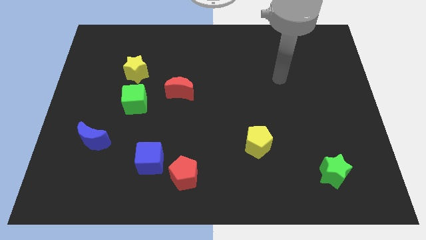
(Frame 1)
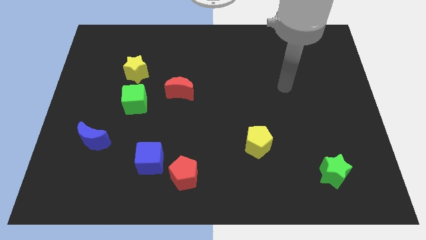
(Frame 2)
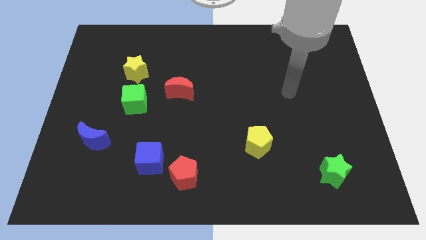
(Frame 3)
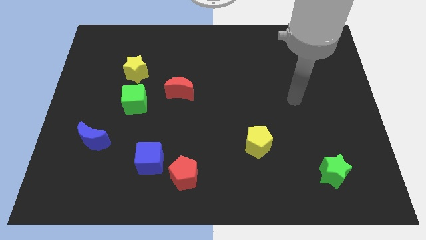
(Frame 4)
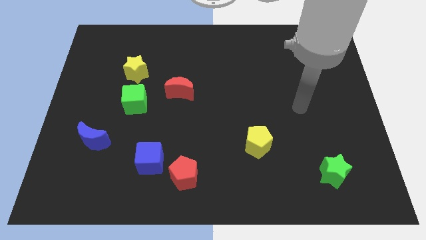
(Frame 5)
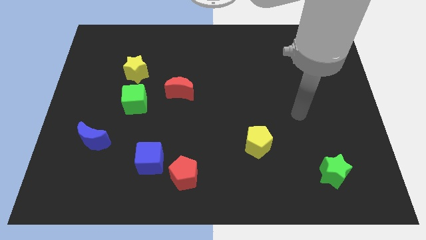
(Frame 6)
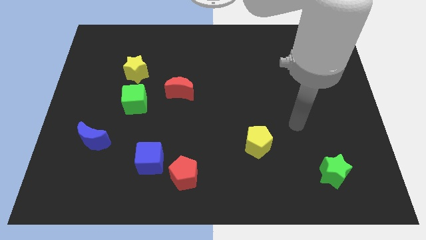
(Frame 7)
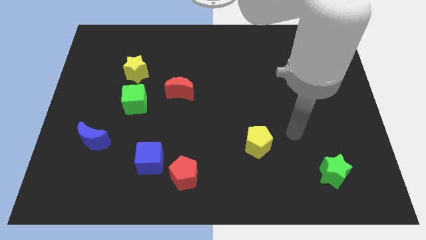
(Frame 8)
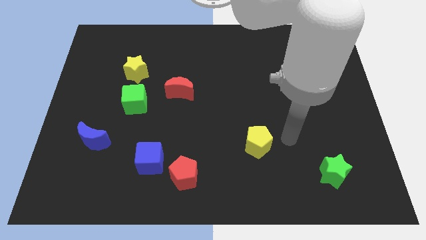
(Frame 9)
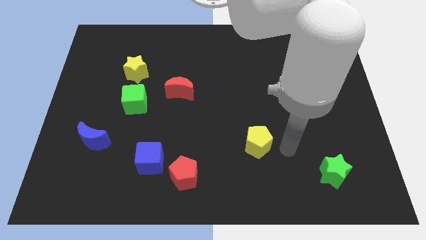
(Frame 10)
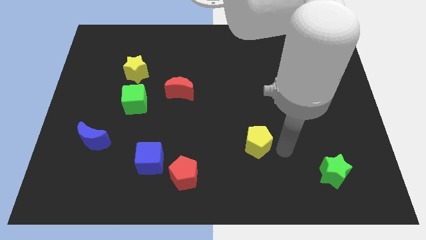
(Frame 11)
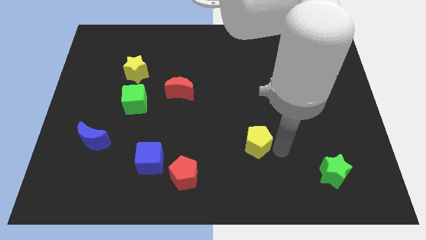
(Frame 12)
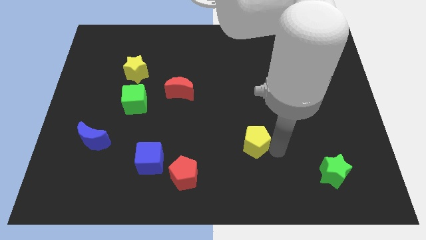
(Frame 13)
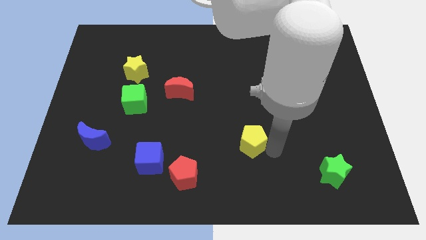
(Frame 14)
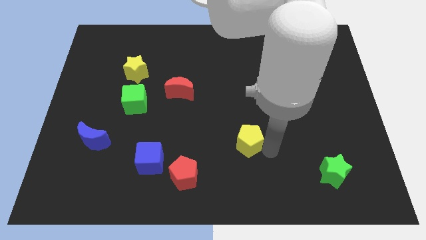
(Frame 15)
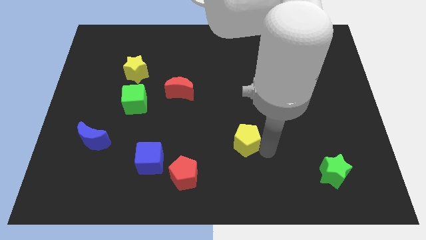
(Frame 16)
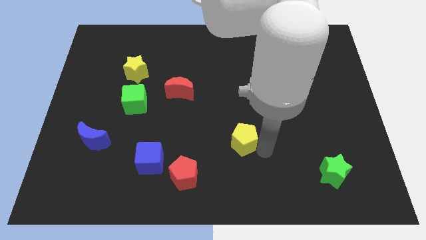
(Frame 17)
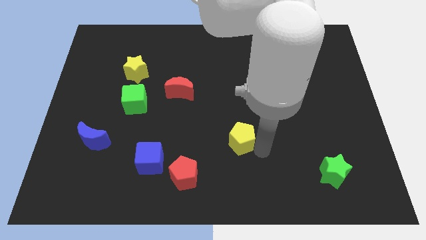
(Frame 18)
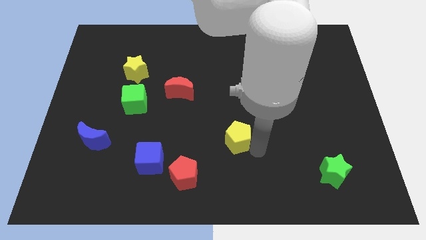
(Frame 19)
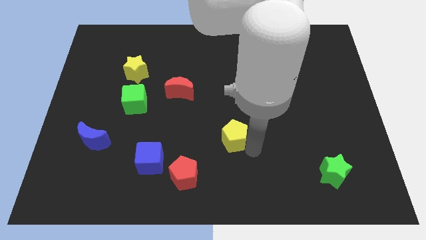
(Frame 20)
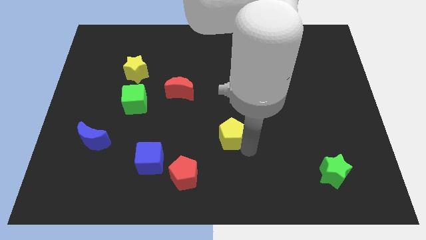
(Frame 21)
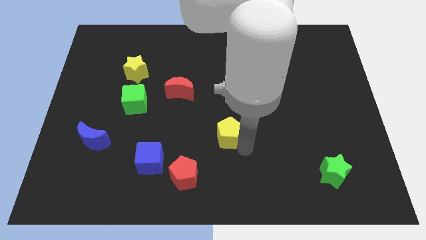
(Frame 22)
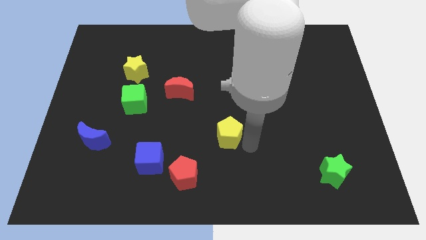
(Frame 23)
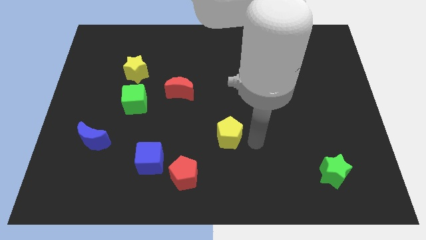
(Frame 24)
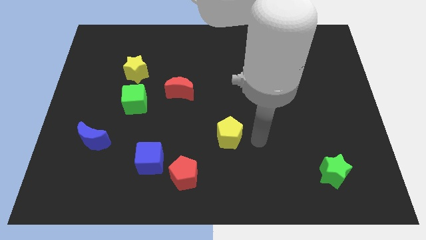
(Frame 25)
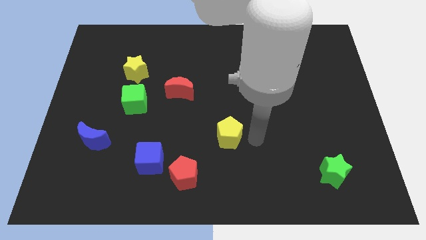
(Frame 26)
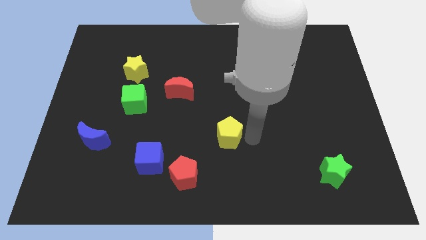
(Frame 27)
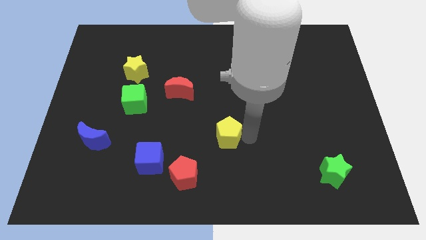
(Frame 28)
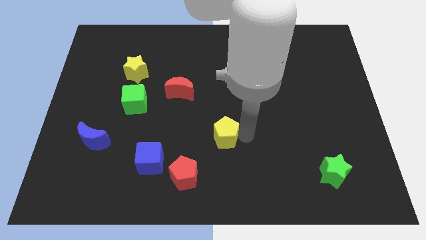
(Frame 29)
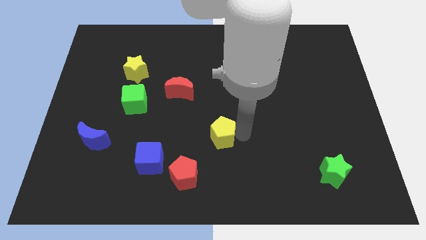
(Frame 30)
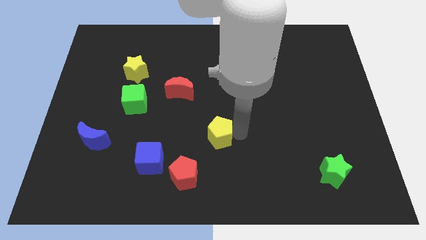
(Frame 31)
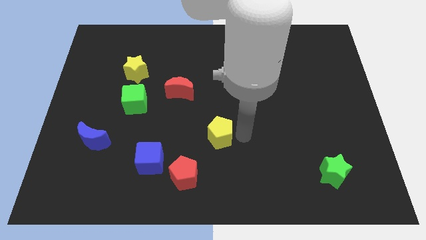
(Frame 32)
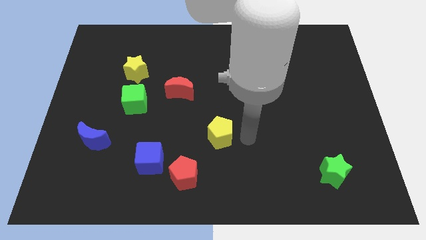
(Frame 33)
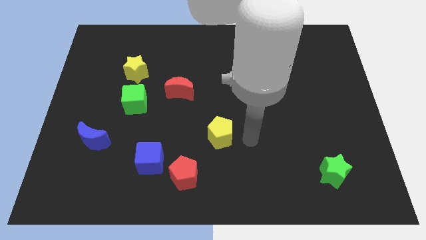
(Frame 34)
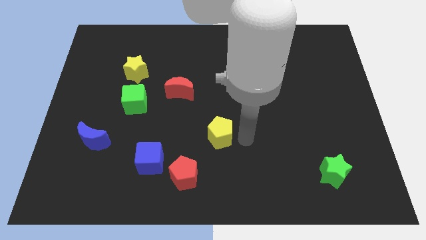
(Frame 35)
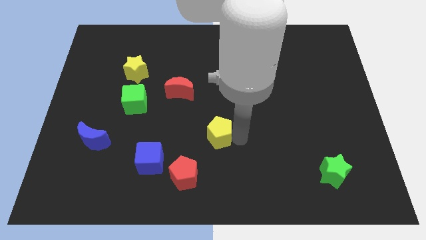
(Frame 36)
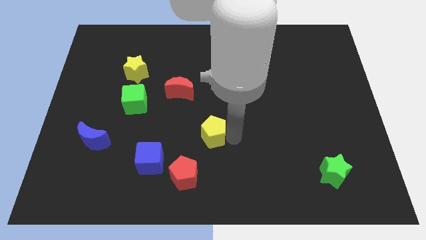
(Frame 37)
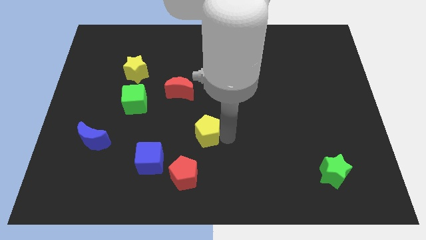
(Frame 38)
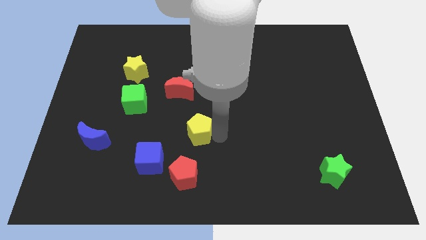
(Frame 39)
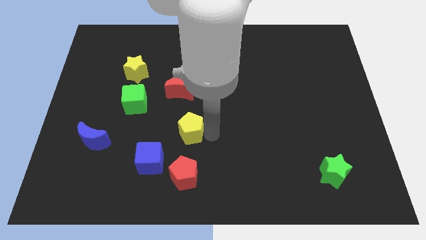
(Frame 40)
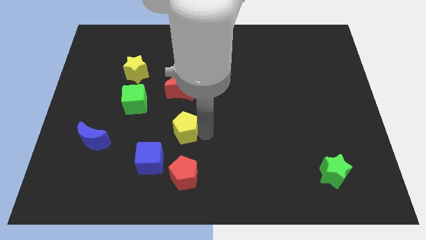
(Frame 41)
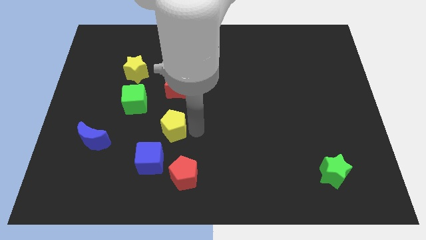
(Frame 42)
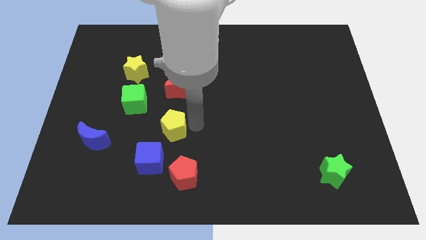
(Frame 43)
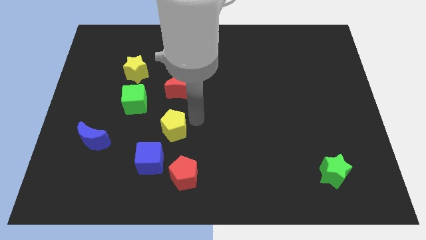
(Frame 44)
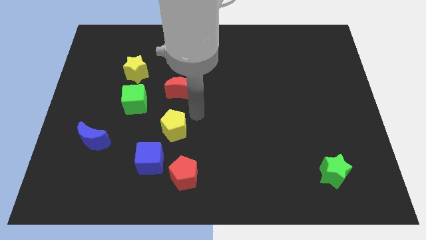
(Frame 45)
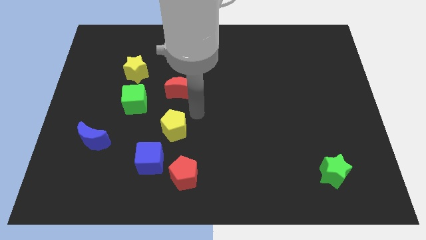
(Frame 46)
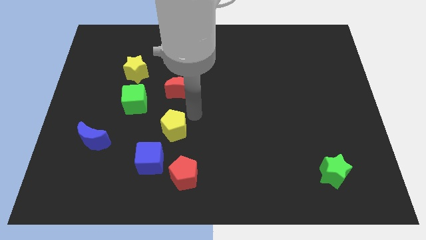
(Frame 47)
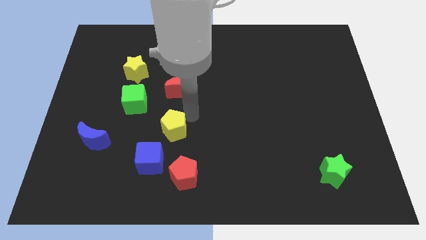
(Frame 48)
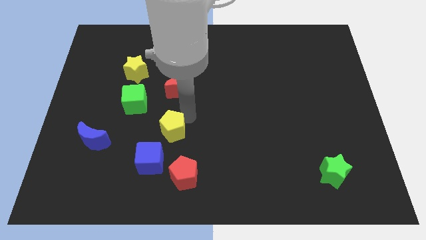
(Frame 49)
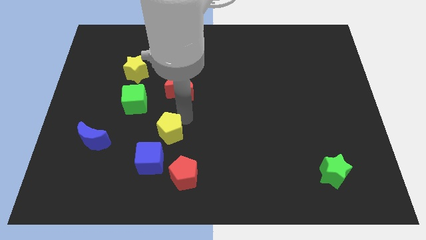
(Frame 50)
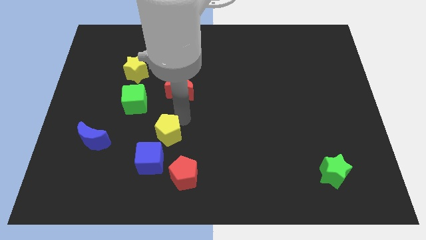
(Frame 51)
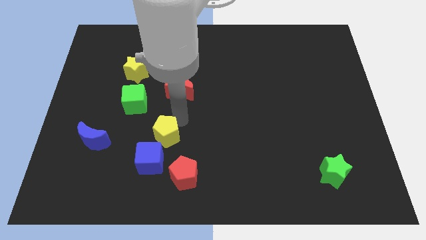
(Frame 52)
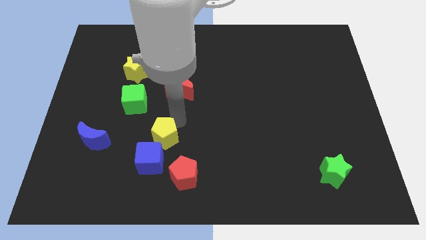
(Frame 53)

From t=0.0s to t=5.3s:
push the yellow pentagon right of the blue moon

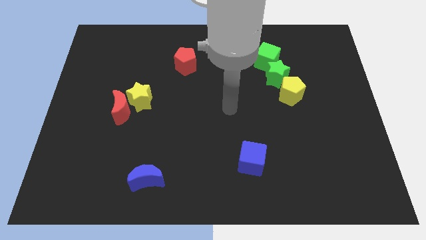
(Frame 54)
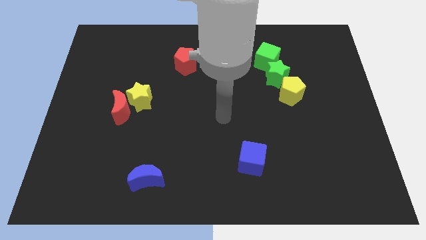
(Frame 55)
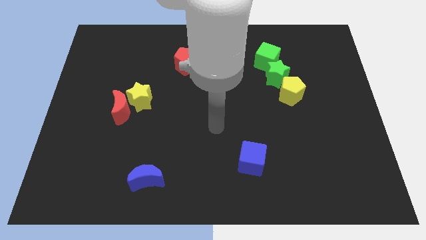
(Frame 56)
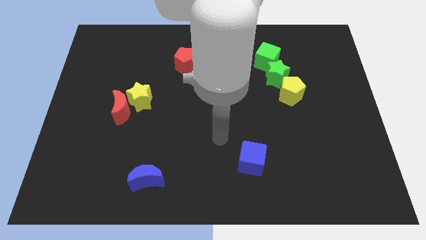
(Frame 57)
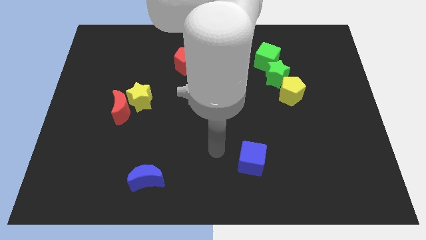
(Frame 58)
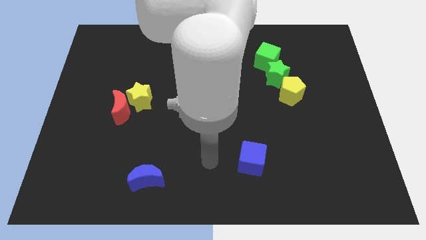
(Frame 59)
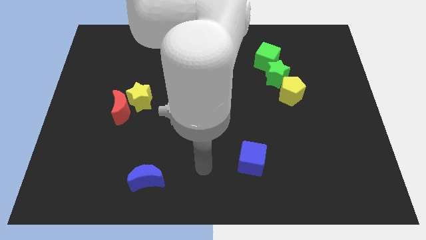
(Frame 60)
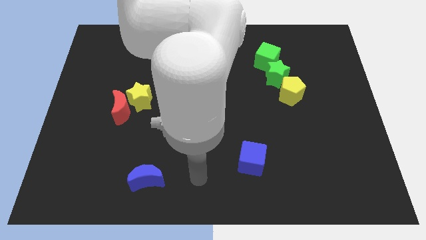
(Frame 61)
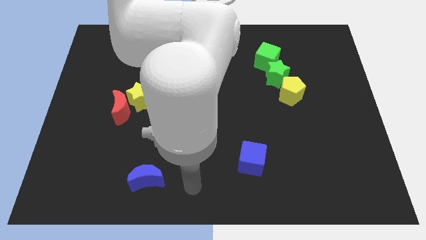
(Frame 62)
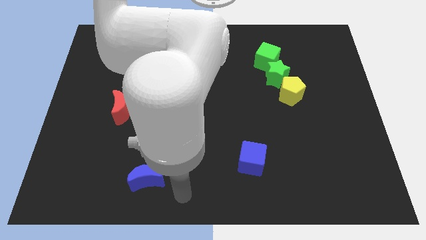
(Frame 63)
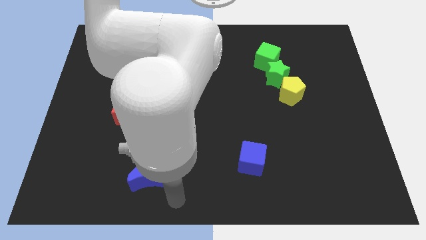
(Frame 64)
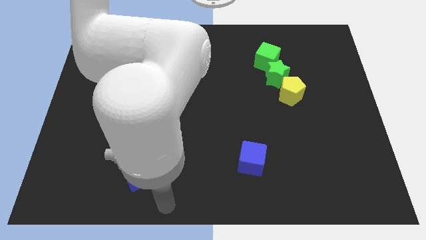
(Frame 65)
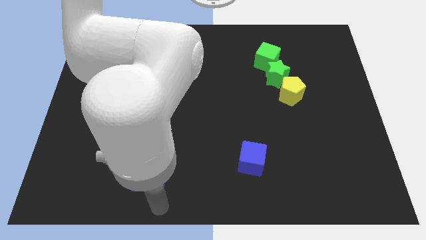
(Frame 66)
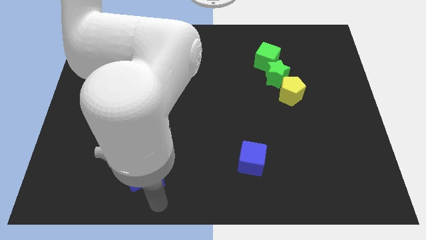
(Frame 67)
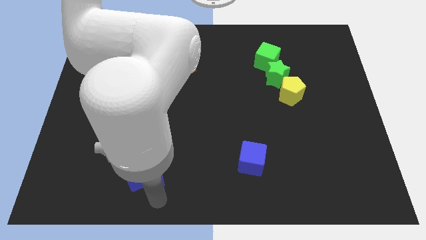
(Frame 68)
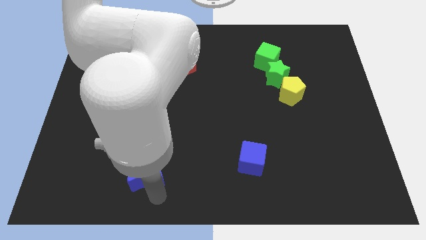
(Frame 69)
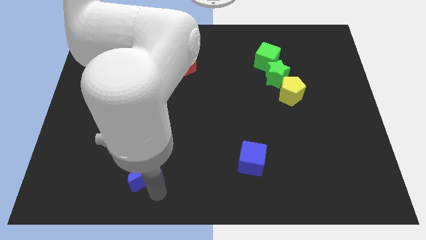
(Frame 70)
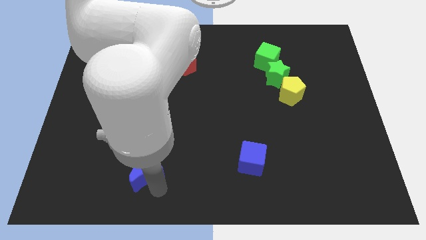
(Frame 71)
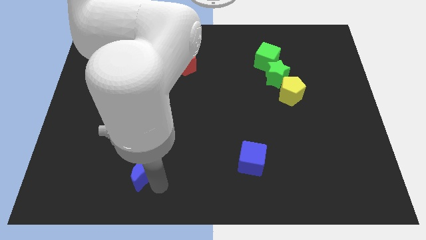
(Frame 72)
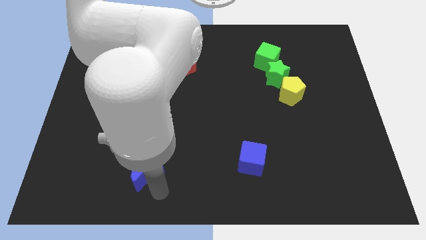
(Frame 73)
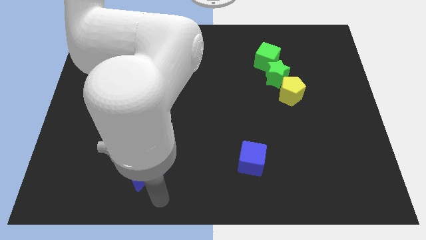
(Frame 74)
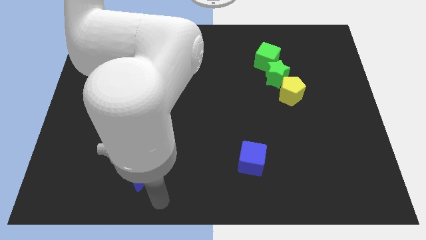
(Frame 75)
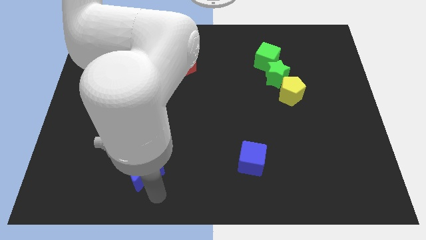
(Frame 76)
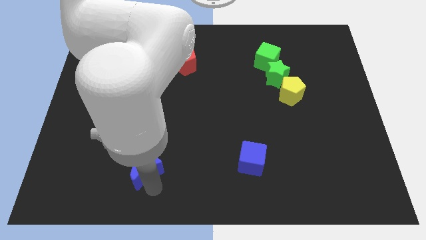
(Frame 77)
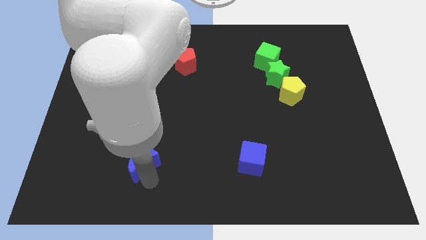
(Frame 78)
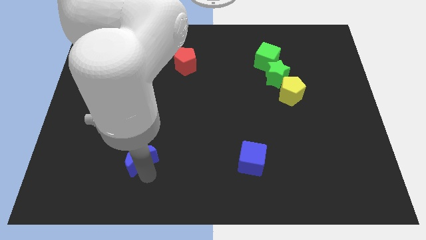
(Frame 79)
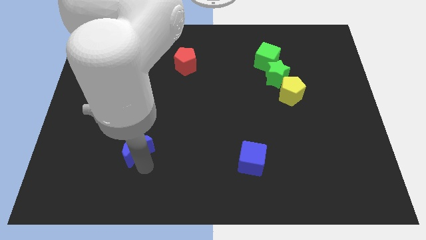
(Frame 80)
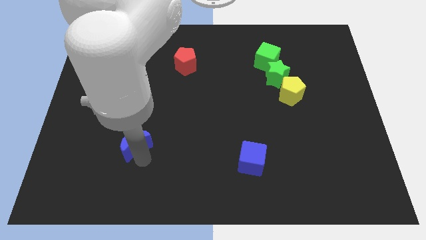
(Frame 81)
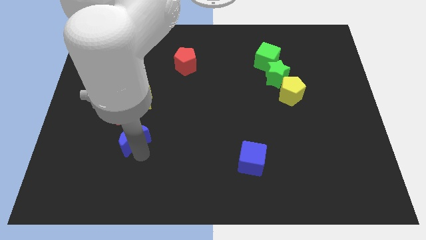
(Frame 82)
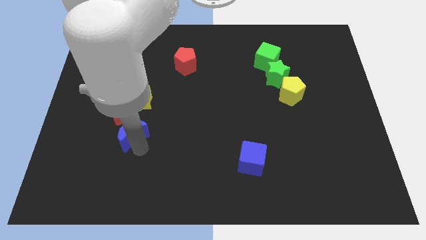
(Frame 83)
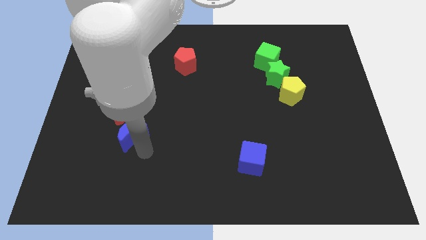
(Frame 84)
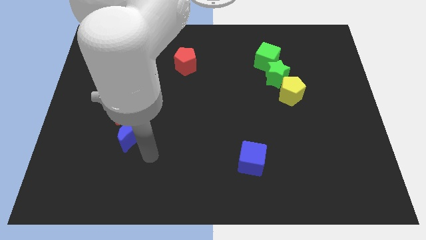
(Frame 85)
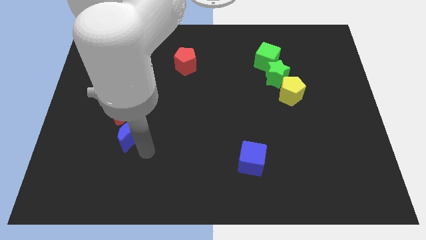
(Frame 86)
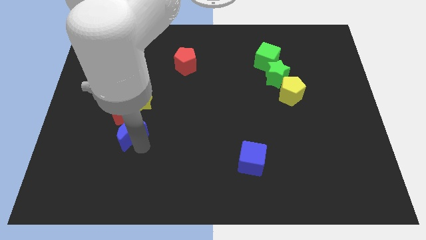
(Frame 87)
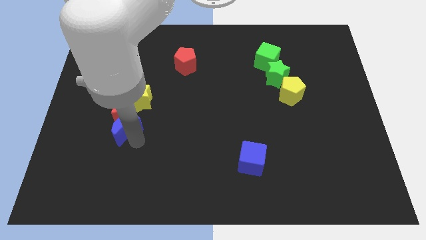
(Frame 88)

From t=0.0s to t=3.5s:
move the blue moon to the bottom left of the yellow star
